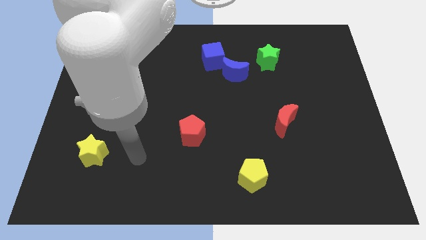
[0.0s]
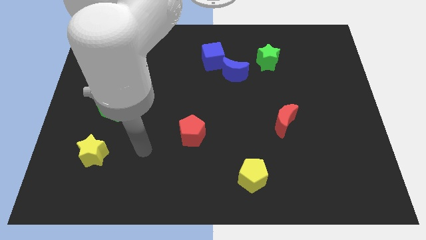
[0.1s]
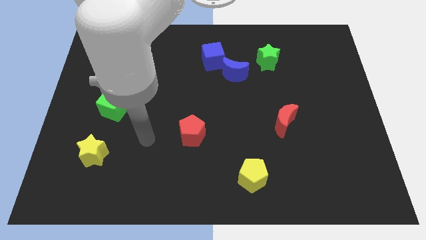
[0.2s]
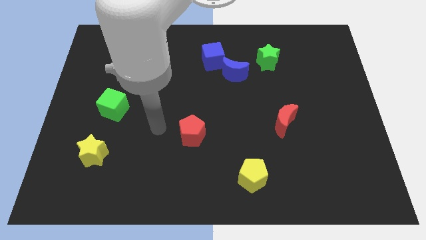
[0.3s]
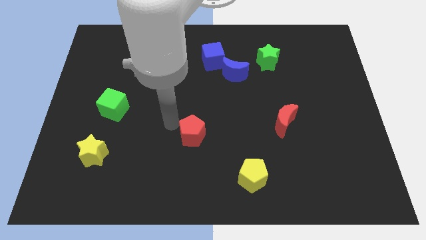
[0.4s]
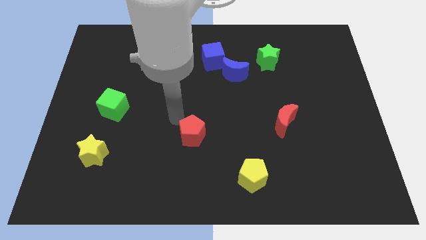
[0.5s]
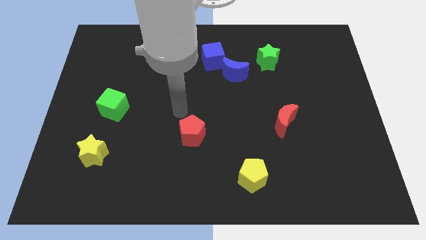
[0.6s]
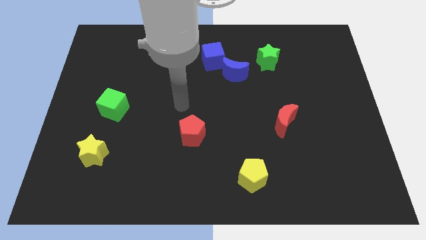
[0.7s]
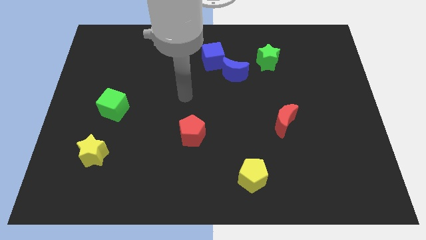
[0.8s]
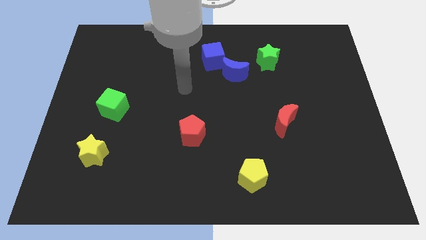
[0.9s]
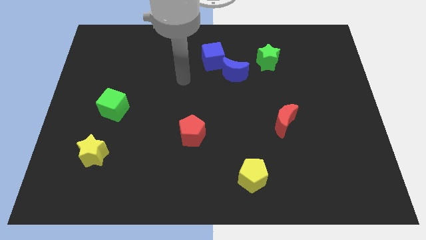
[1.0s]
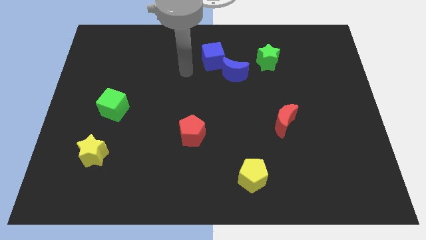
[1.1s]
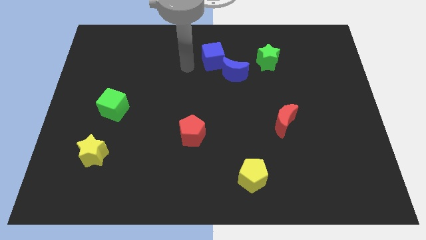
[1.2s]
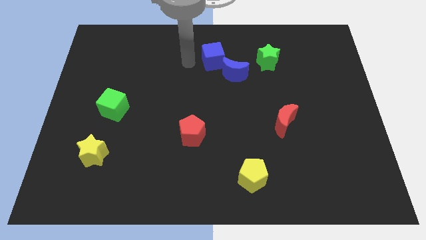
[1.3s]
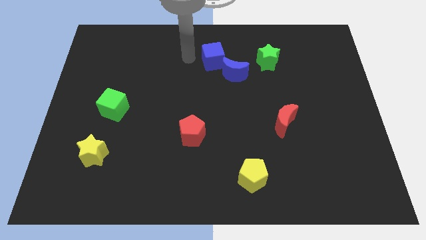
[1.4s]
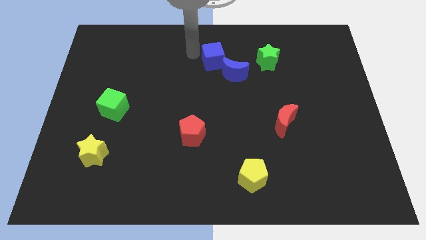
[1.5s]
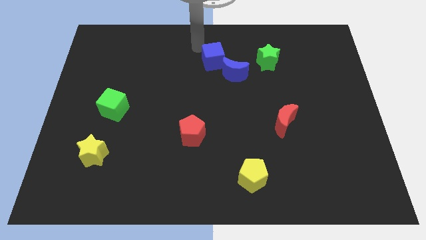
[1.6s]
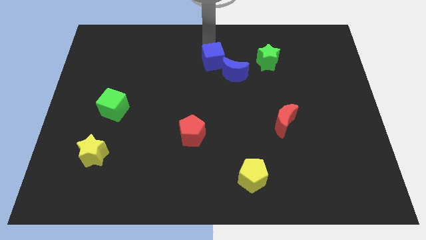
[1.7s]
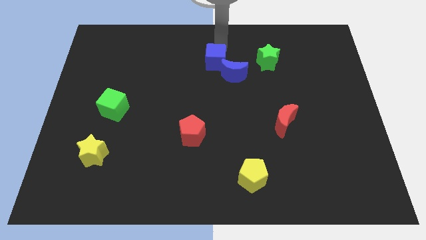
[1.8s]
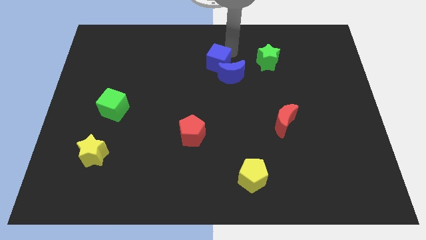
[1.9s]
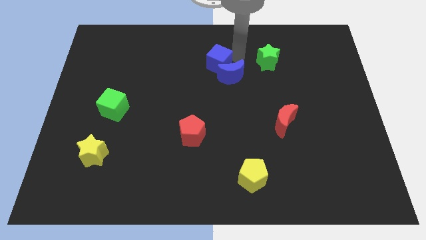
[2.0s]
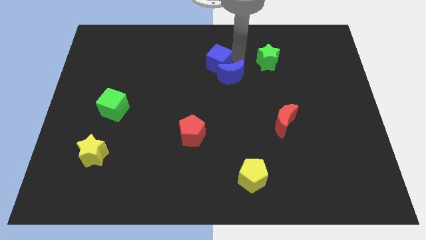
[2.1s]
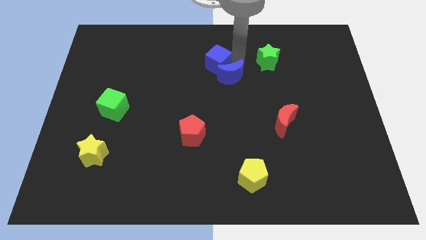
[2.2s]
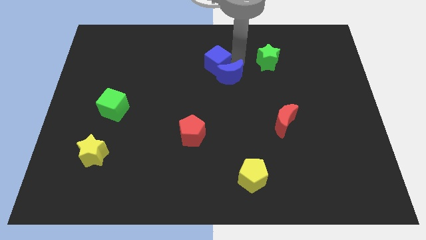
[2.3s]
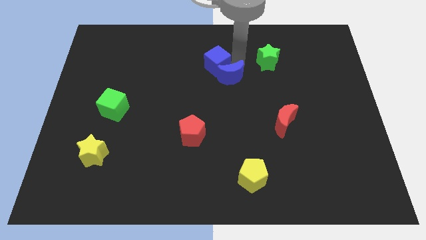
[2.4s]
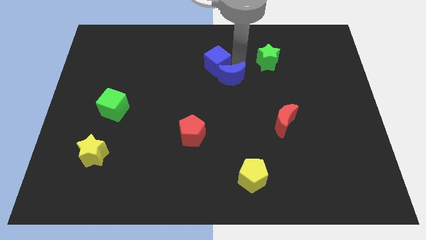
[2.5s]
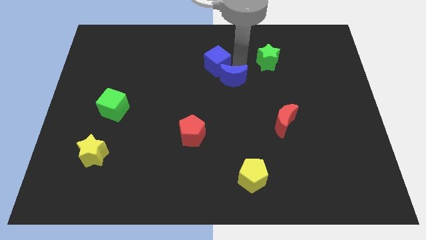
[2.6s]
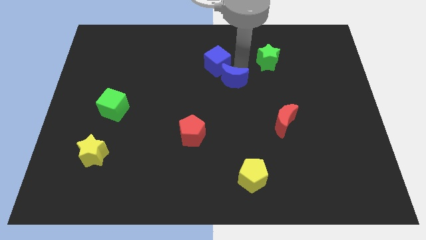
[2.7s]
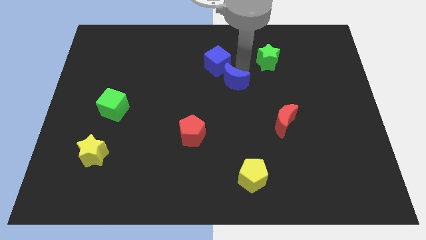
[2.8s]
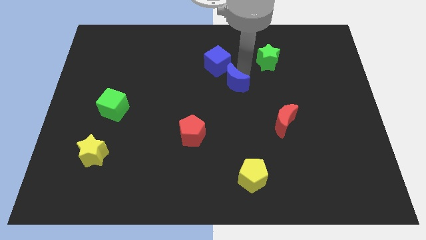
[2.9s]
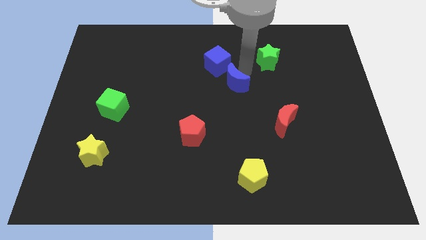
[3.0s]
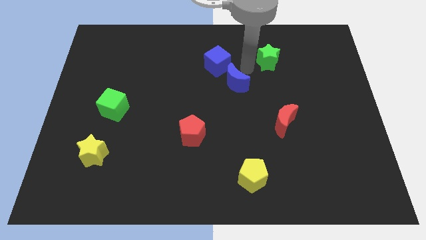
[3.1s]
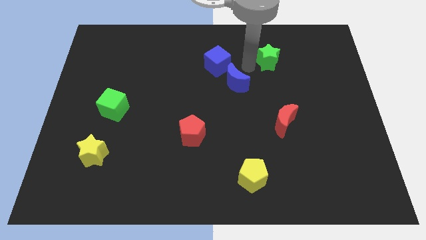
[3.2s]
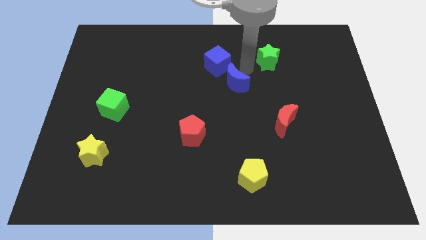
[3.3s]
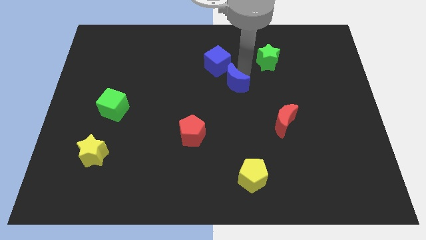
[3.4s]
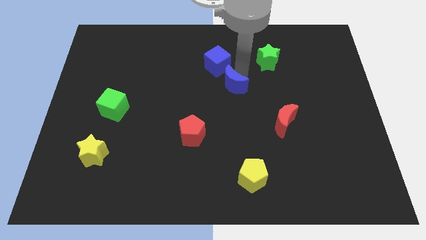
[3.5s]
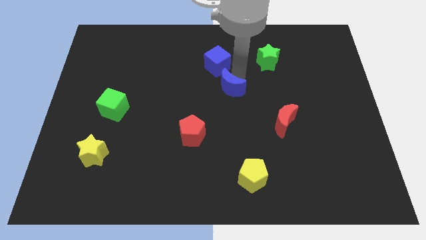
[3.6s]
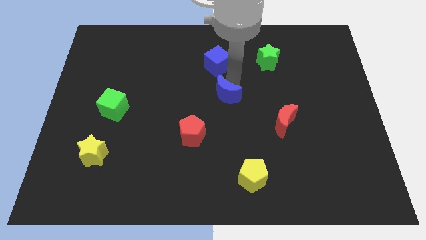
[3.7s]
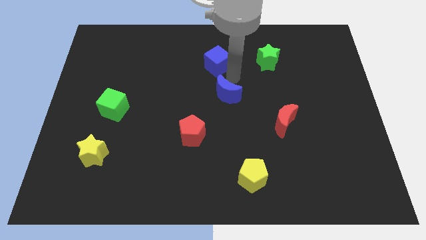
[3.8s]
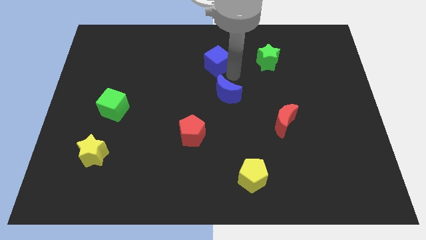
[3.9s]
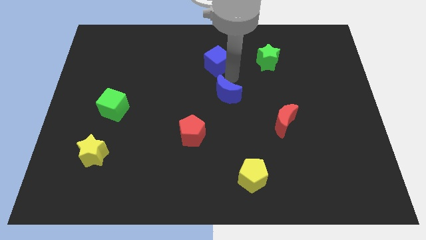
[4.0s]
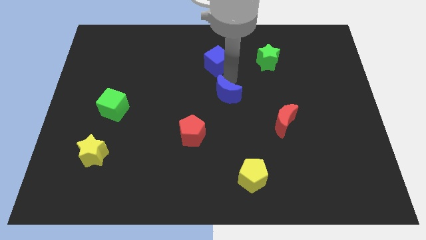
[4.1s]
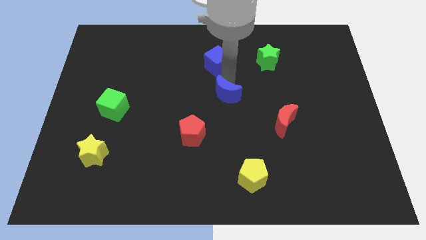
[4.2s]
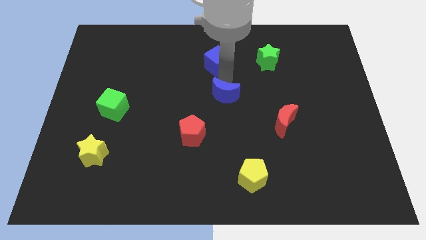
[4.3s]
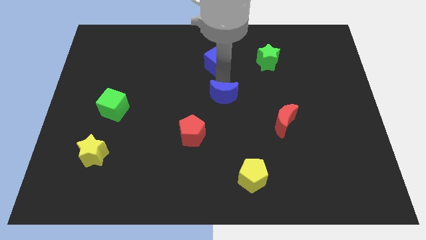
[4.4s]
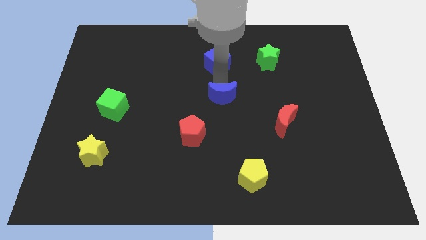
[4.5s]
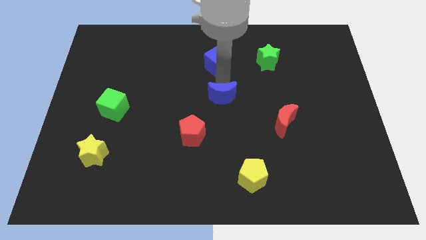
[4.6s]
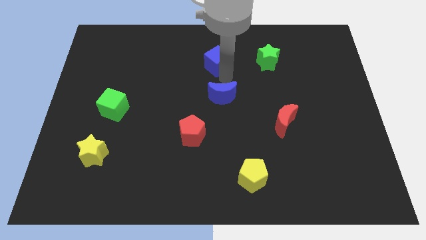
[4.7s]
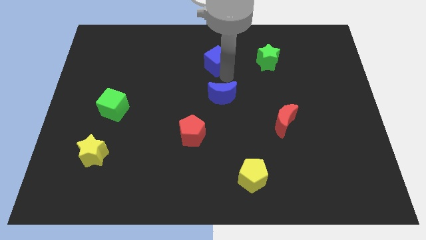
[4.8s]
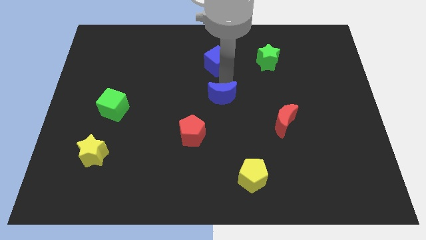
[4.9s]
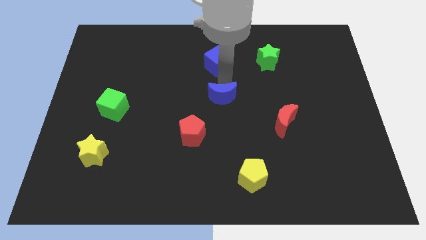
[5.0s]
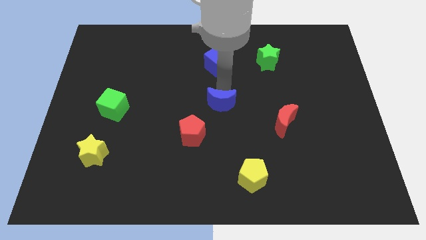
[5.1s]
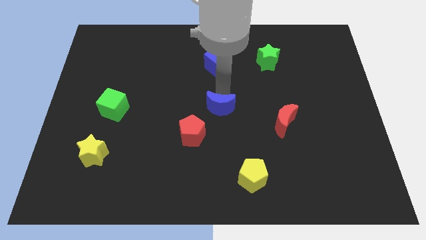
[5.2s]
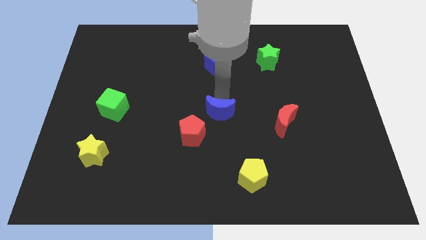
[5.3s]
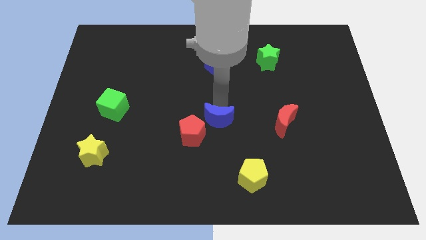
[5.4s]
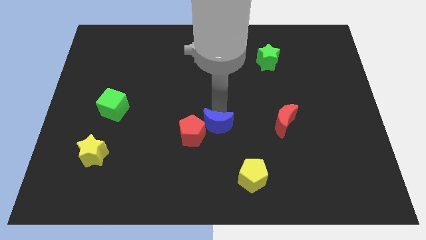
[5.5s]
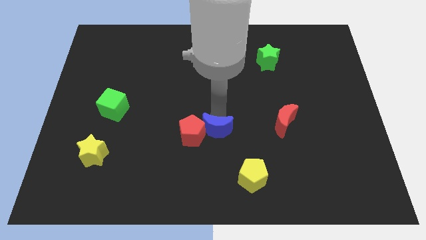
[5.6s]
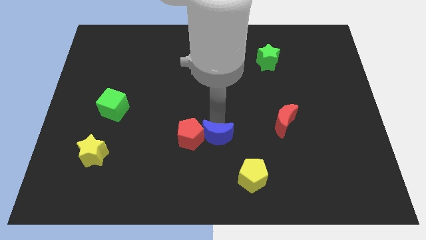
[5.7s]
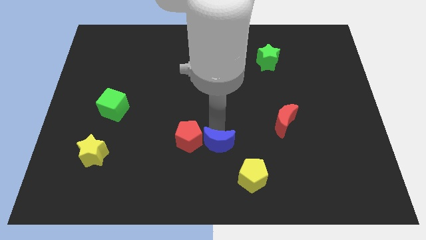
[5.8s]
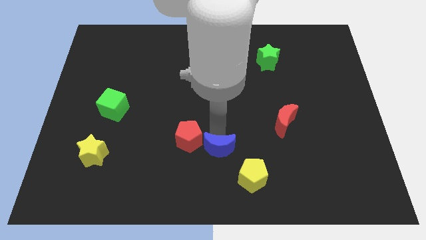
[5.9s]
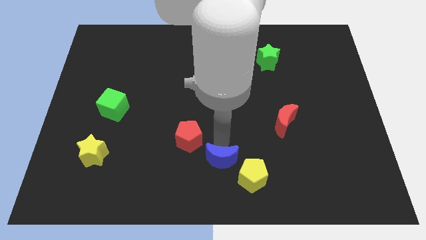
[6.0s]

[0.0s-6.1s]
put the blue moon left of the yellow pentagon

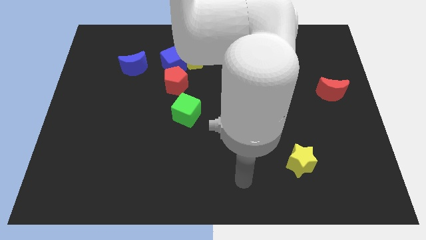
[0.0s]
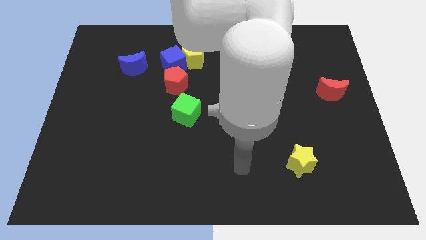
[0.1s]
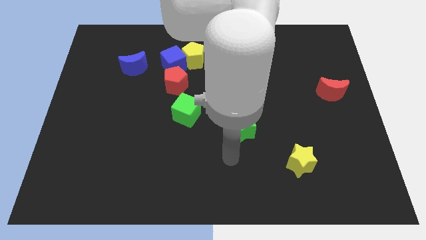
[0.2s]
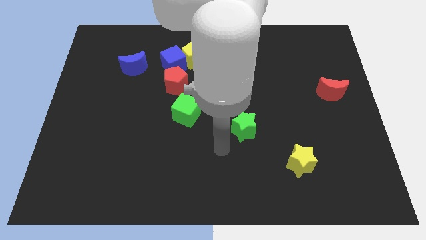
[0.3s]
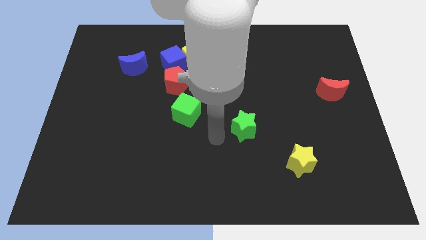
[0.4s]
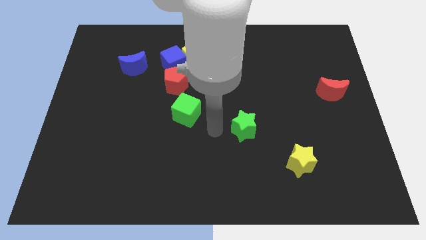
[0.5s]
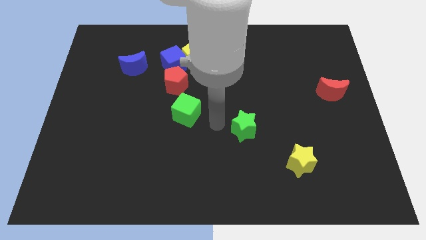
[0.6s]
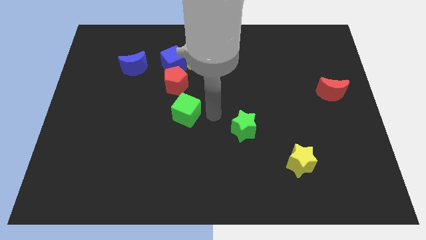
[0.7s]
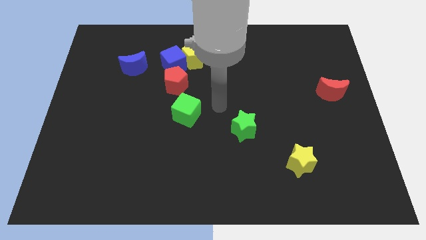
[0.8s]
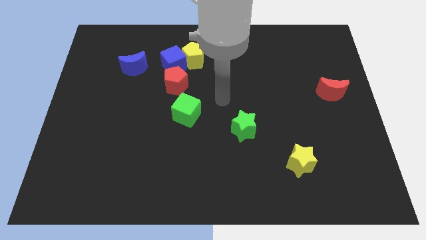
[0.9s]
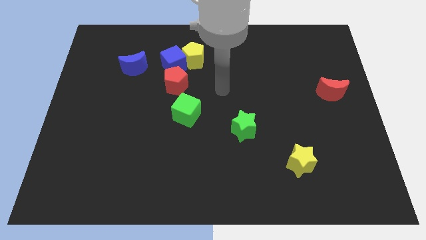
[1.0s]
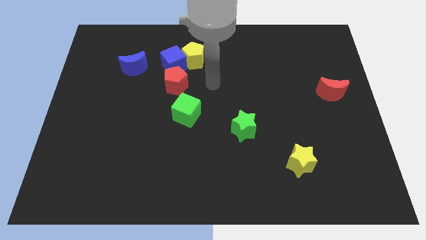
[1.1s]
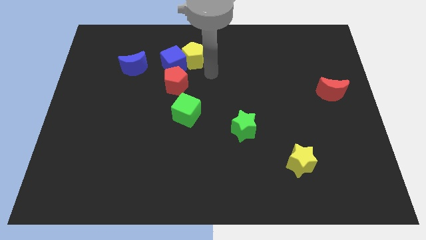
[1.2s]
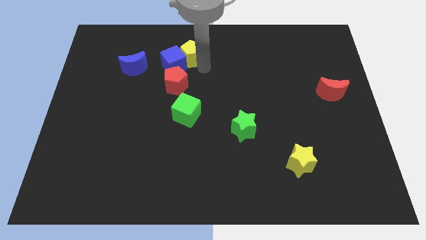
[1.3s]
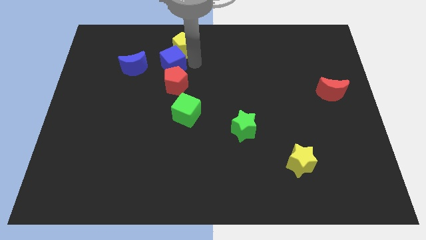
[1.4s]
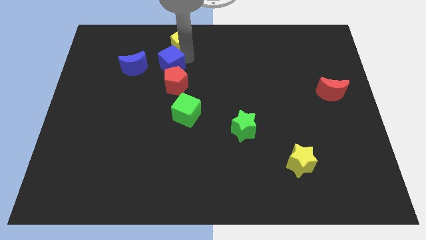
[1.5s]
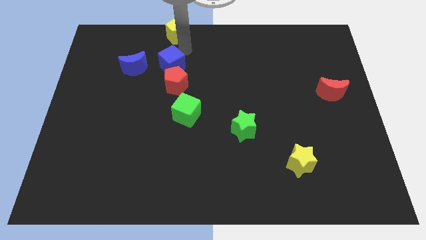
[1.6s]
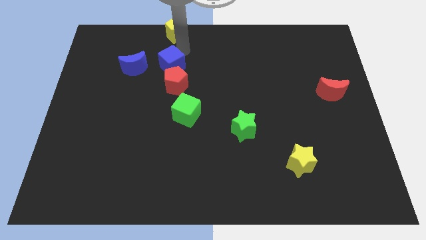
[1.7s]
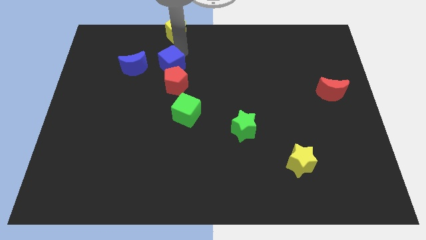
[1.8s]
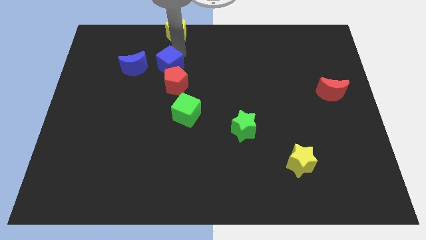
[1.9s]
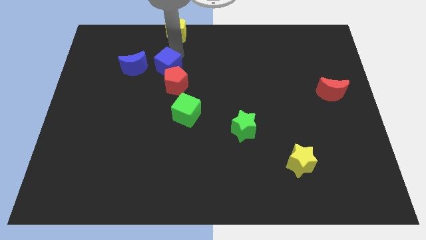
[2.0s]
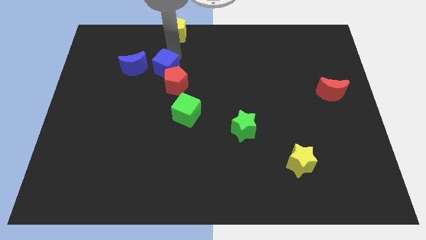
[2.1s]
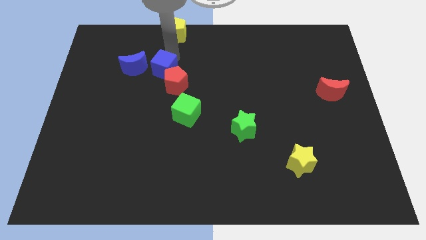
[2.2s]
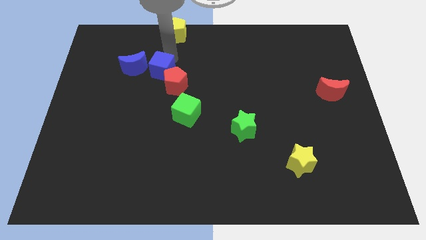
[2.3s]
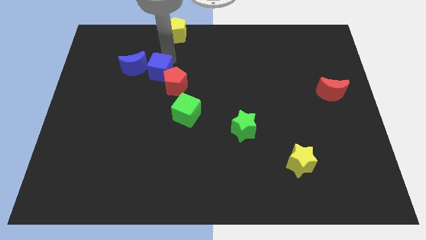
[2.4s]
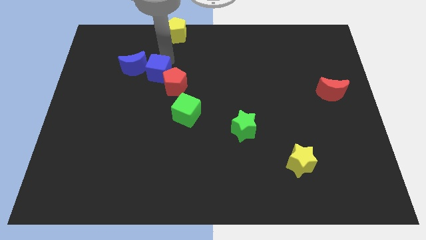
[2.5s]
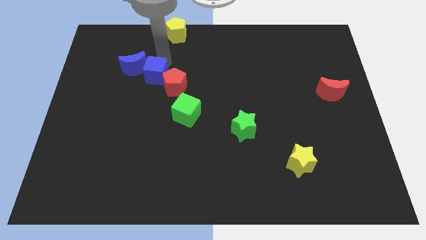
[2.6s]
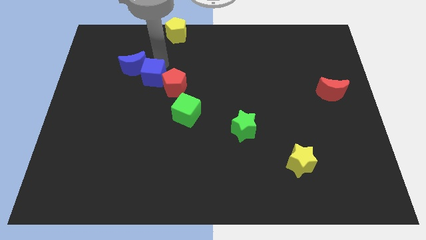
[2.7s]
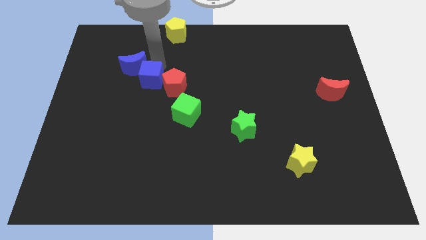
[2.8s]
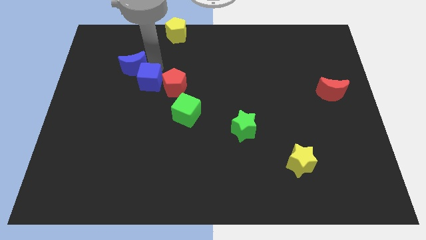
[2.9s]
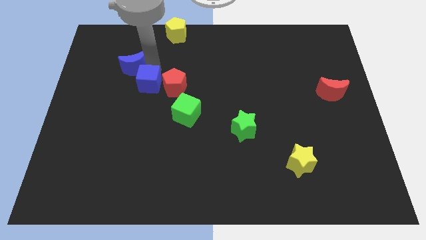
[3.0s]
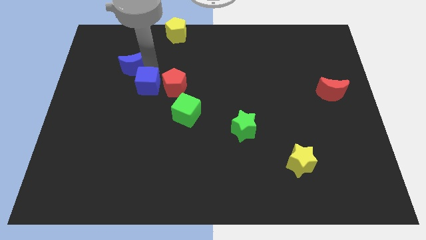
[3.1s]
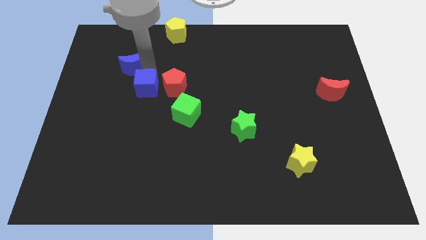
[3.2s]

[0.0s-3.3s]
put the blue cube to the bottom left side of the red pentagon
